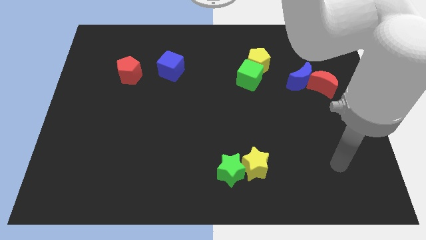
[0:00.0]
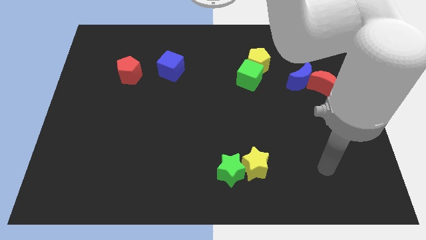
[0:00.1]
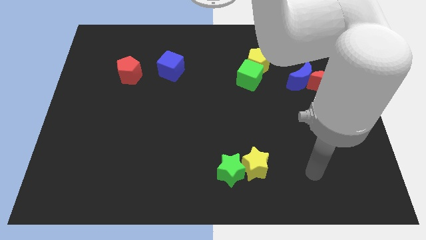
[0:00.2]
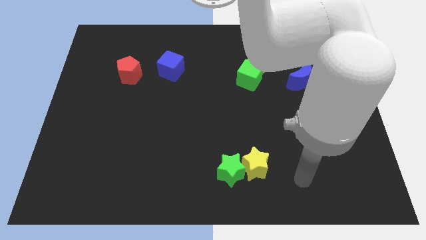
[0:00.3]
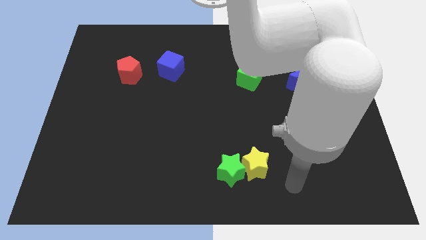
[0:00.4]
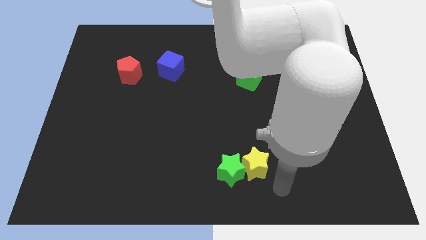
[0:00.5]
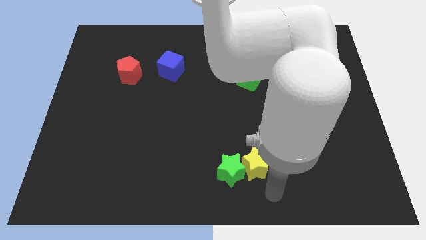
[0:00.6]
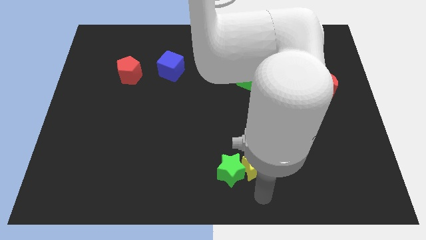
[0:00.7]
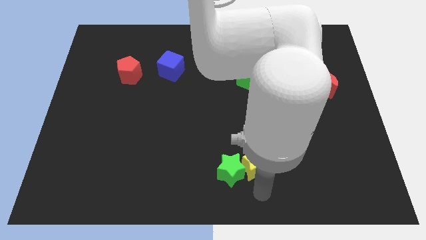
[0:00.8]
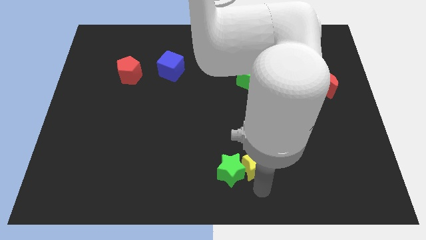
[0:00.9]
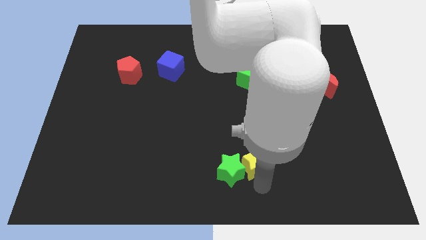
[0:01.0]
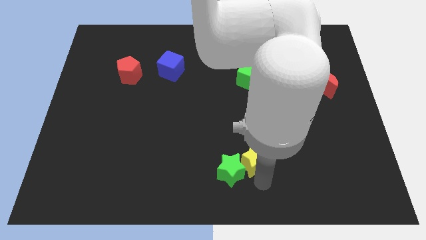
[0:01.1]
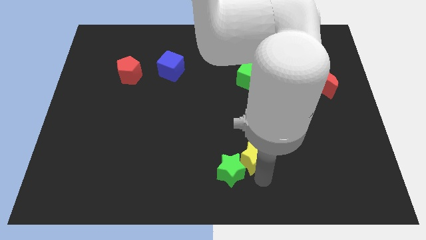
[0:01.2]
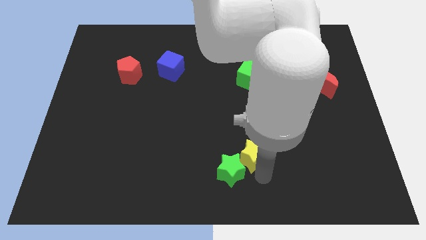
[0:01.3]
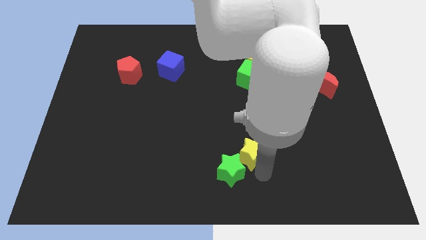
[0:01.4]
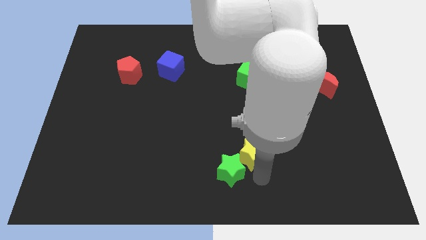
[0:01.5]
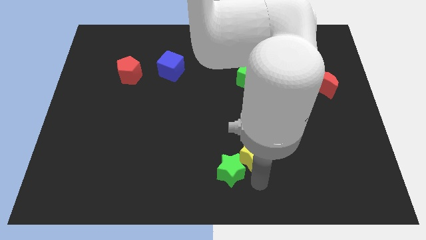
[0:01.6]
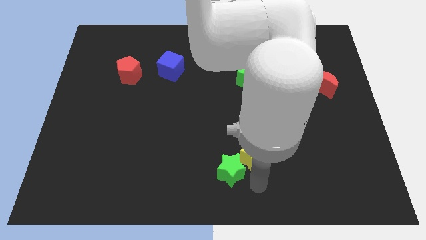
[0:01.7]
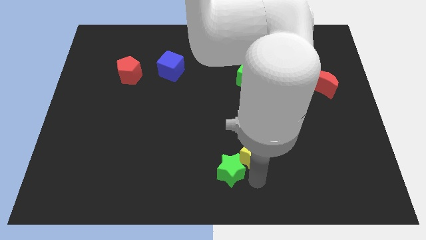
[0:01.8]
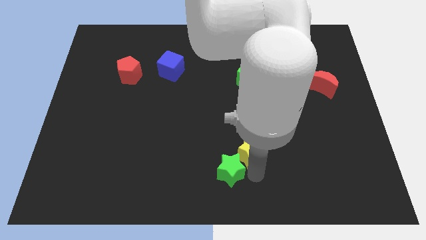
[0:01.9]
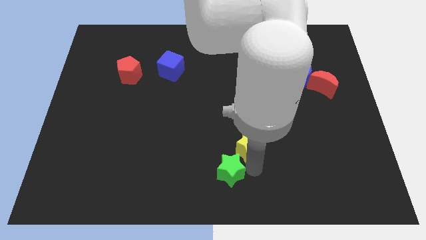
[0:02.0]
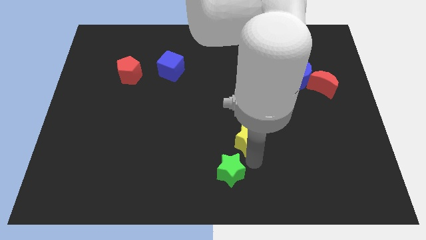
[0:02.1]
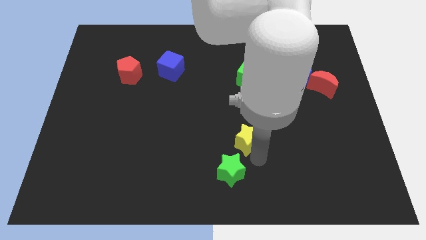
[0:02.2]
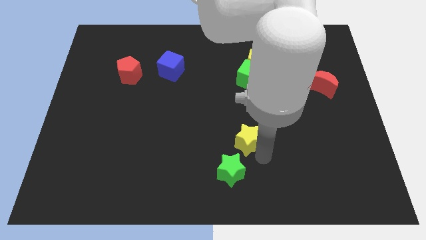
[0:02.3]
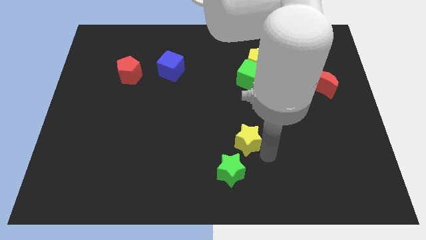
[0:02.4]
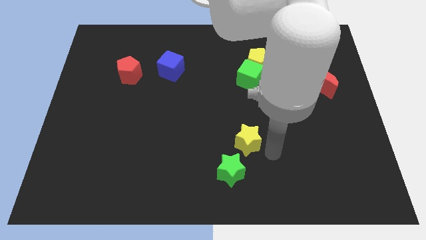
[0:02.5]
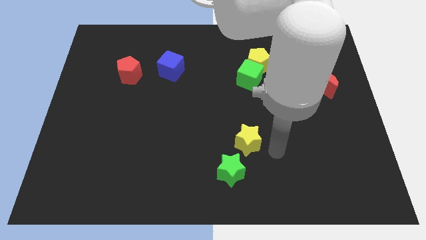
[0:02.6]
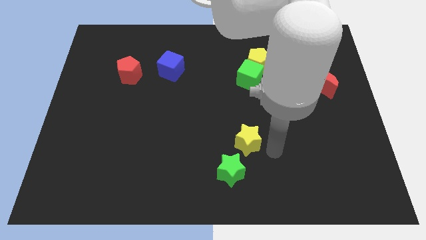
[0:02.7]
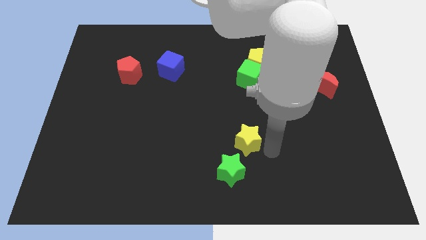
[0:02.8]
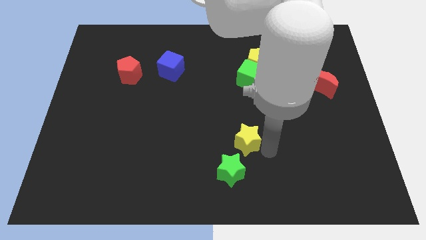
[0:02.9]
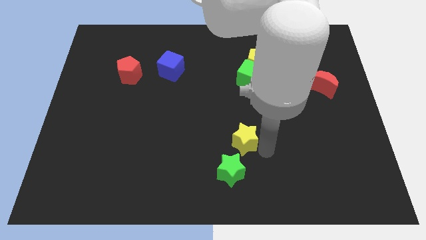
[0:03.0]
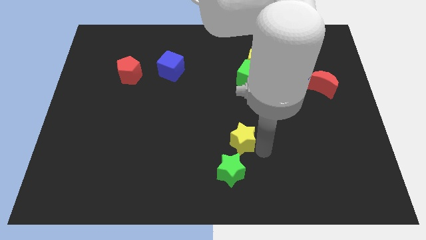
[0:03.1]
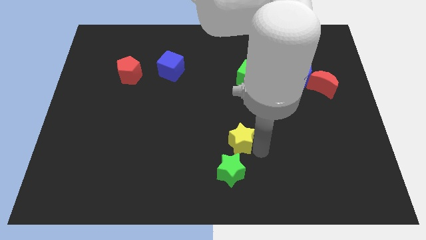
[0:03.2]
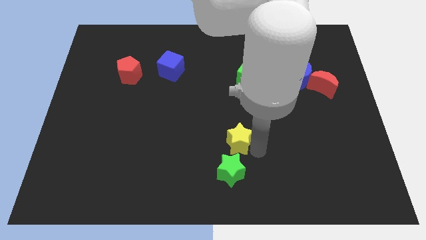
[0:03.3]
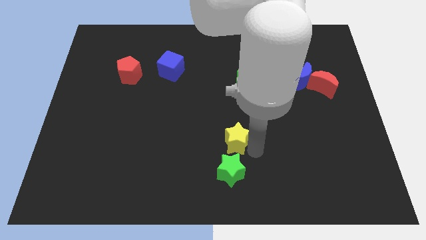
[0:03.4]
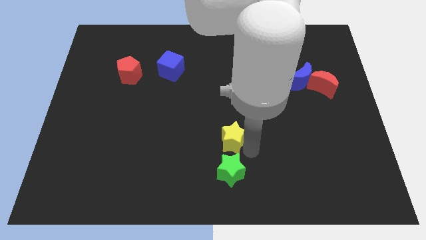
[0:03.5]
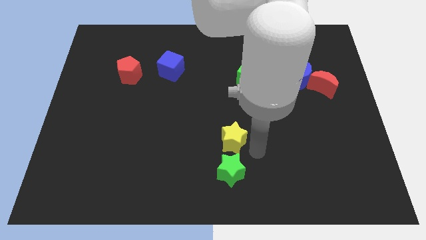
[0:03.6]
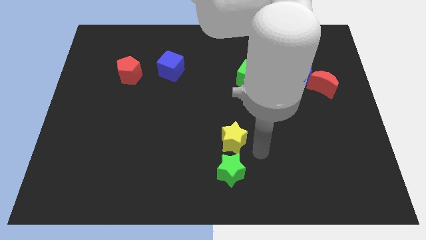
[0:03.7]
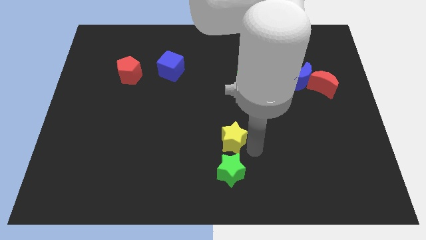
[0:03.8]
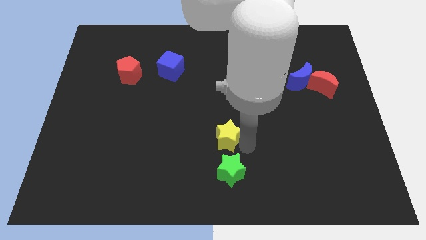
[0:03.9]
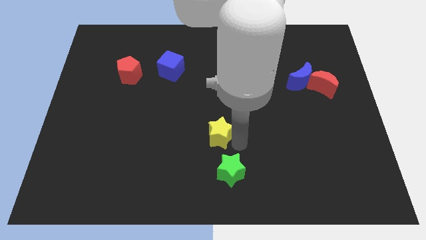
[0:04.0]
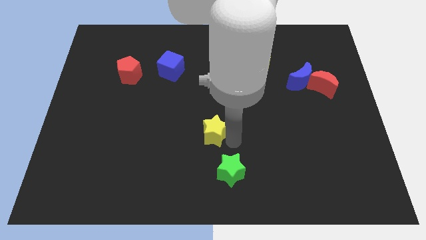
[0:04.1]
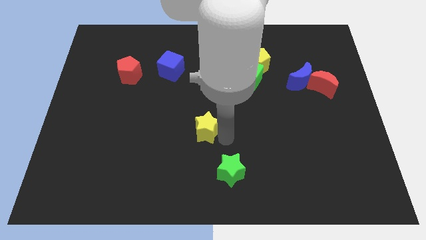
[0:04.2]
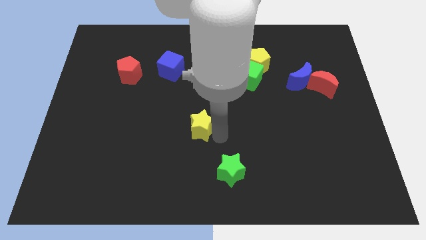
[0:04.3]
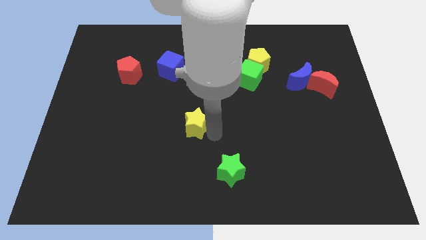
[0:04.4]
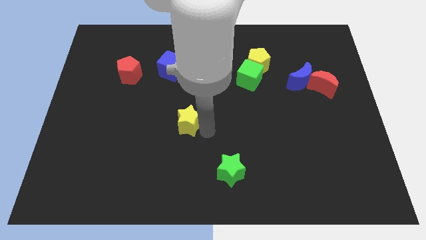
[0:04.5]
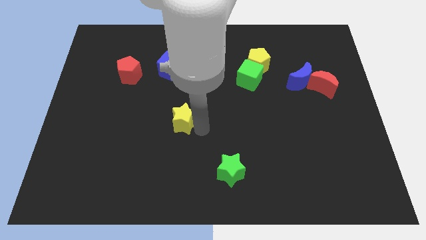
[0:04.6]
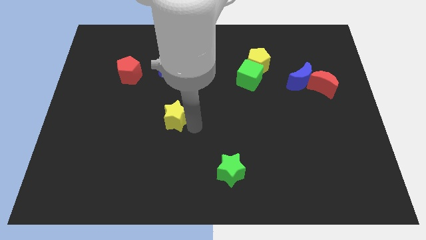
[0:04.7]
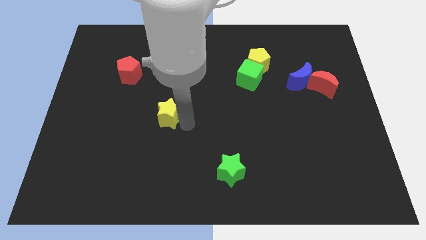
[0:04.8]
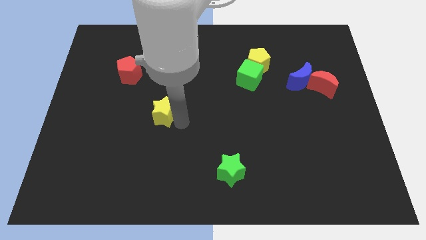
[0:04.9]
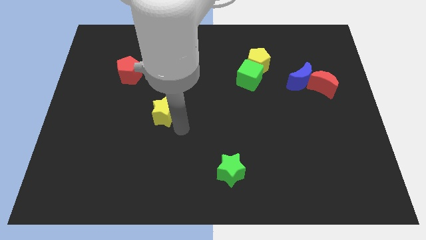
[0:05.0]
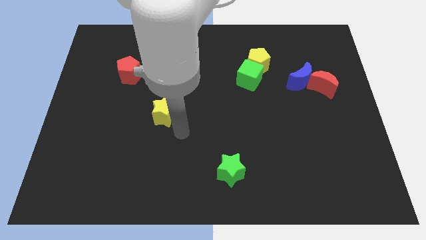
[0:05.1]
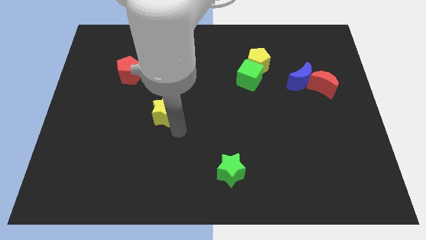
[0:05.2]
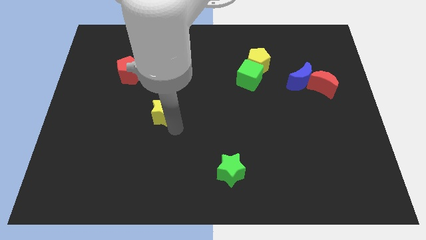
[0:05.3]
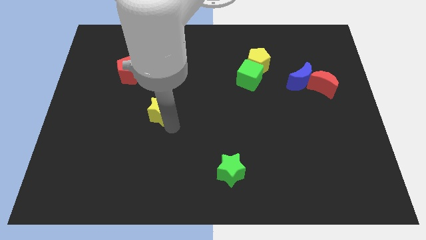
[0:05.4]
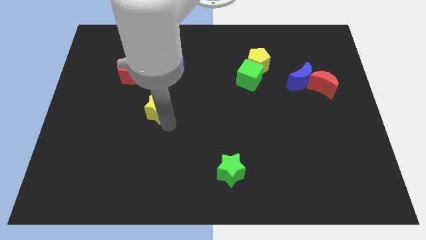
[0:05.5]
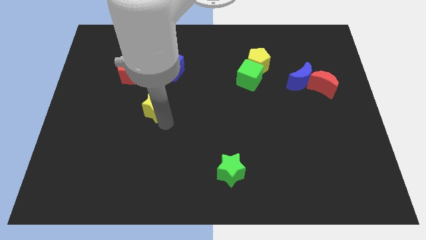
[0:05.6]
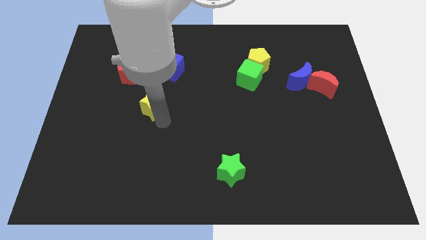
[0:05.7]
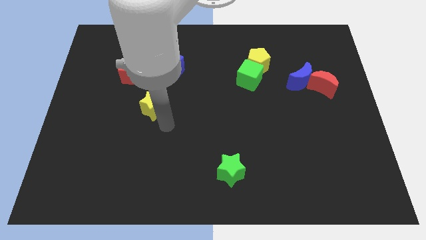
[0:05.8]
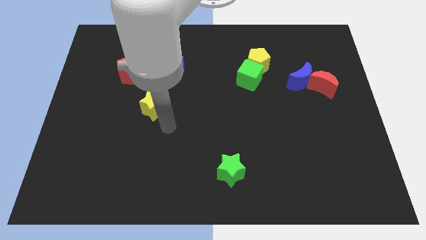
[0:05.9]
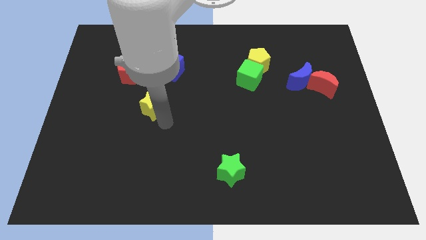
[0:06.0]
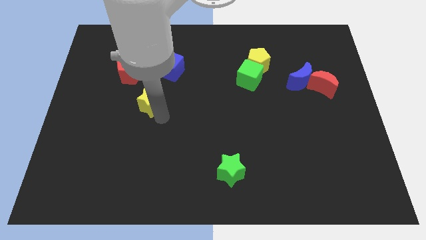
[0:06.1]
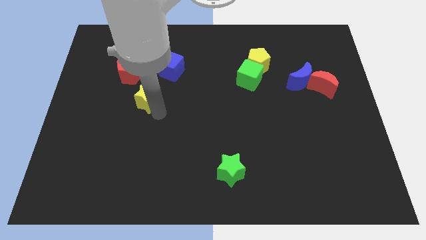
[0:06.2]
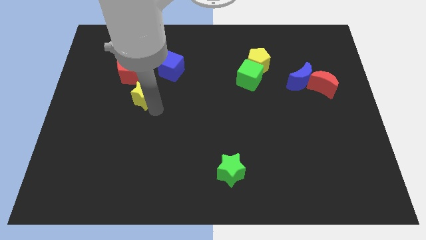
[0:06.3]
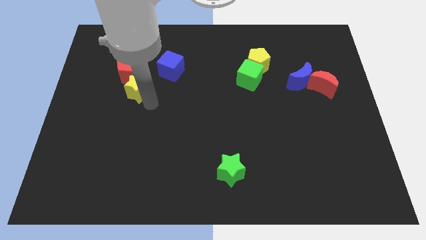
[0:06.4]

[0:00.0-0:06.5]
move the yellow star next to the red pentagon

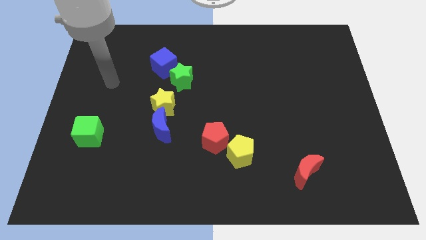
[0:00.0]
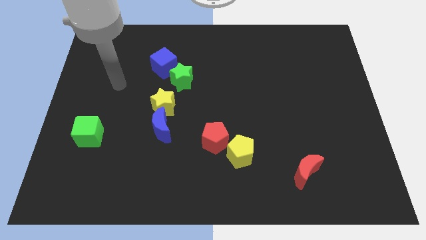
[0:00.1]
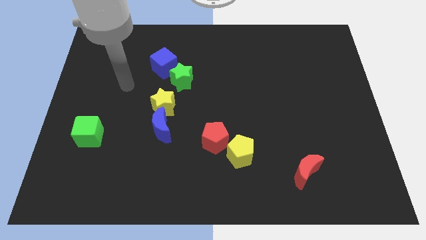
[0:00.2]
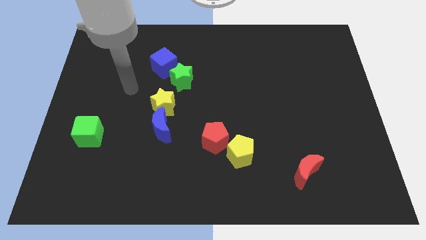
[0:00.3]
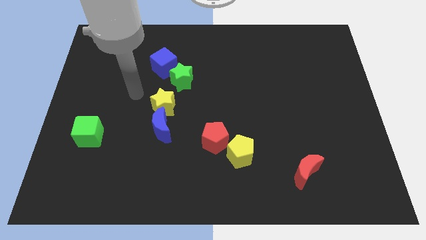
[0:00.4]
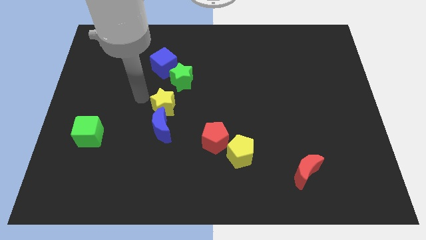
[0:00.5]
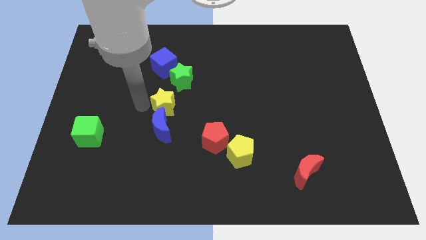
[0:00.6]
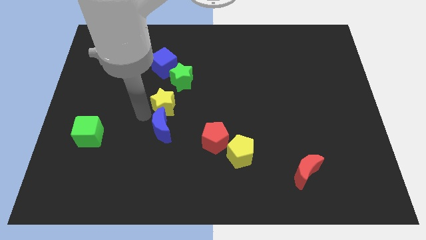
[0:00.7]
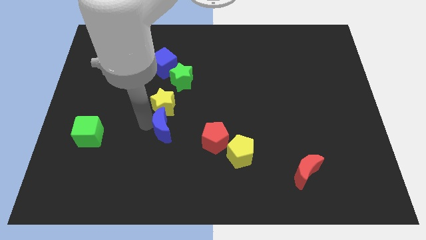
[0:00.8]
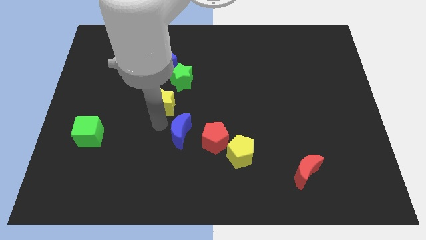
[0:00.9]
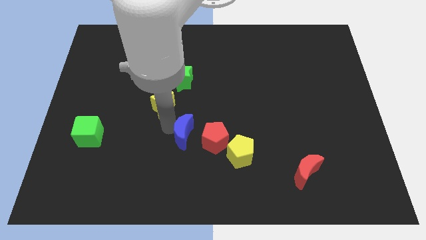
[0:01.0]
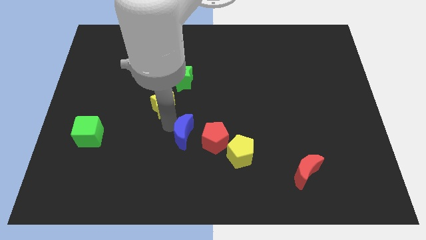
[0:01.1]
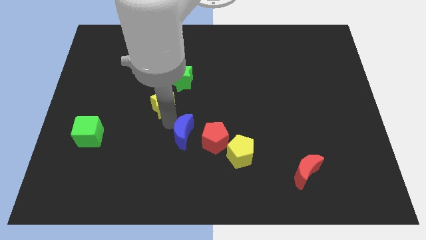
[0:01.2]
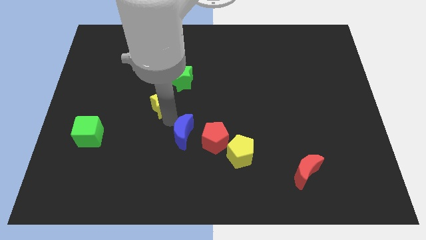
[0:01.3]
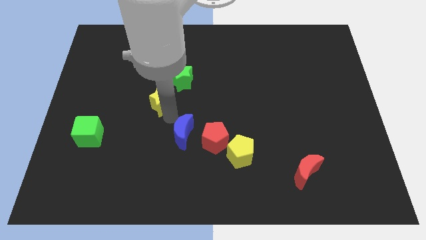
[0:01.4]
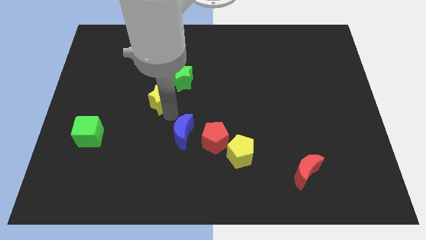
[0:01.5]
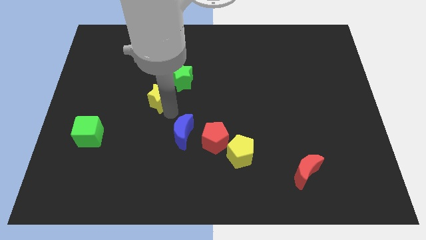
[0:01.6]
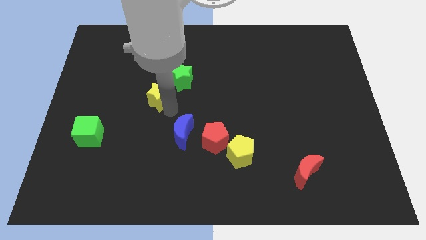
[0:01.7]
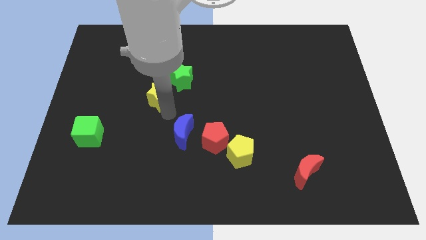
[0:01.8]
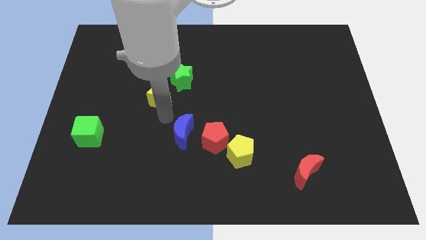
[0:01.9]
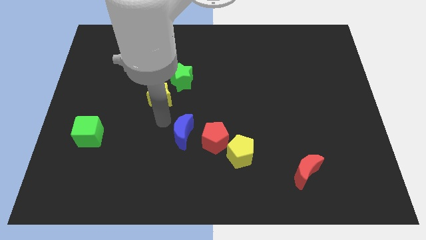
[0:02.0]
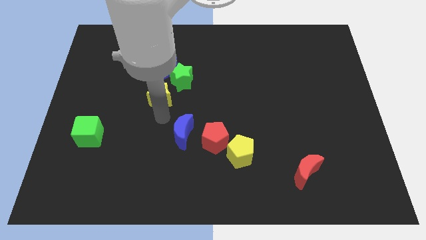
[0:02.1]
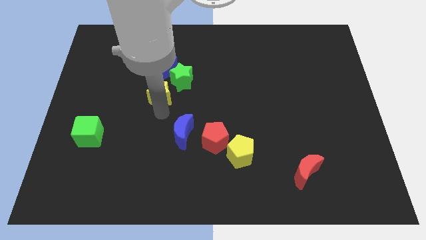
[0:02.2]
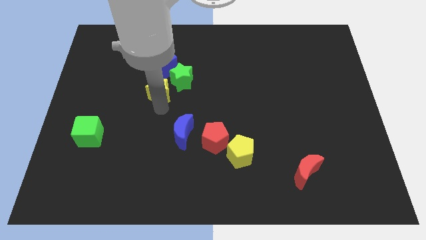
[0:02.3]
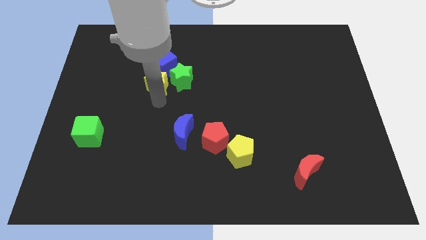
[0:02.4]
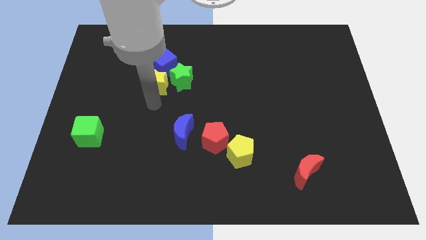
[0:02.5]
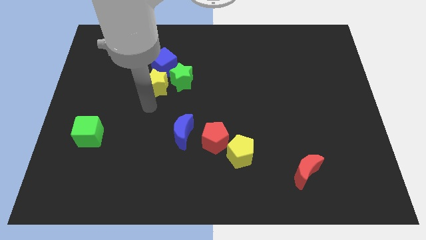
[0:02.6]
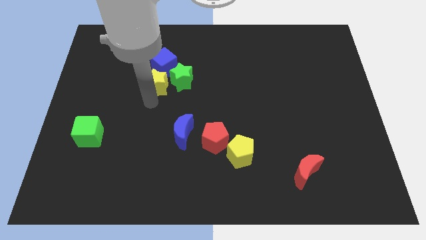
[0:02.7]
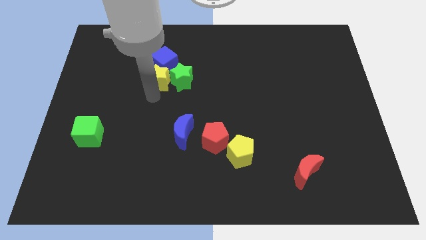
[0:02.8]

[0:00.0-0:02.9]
push the yellow star towards the blue cube
